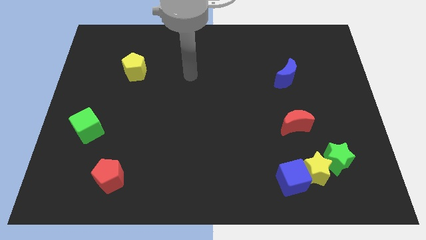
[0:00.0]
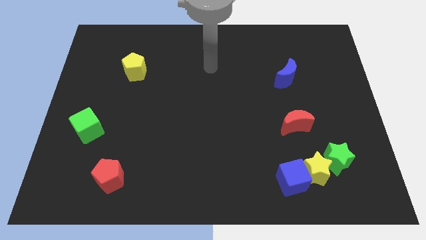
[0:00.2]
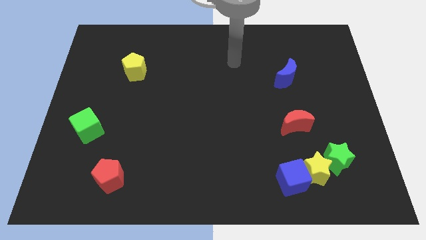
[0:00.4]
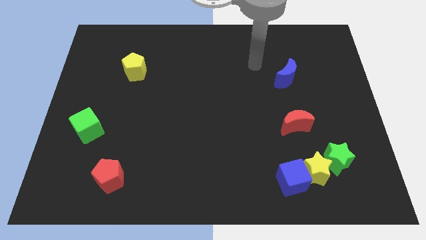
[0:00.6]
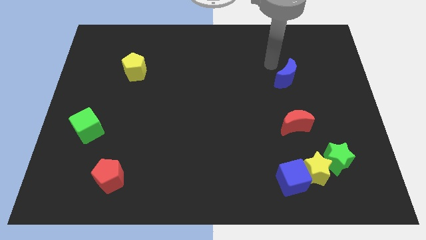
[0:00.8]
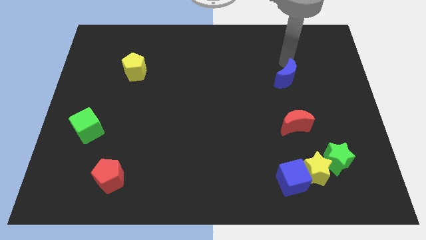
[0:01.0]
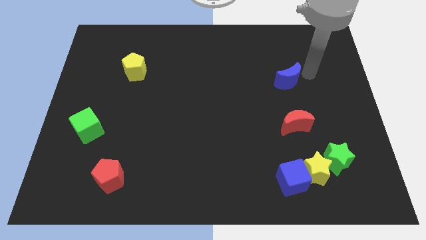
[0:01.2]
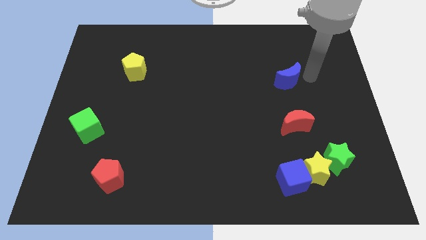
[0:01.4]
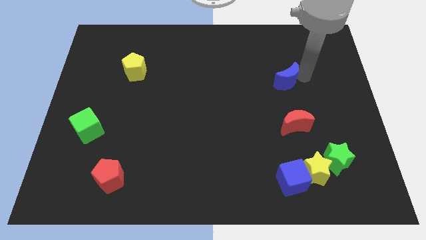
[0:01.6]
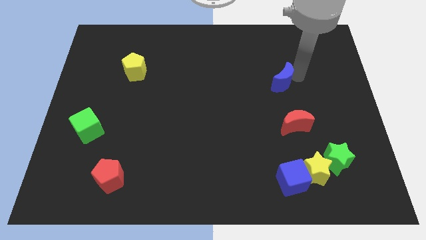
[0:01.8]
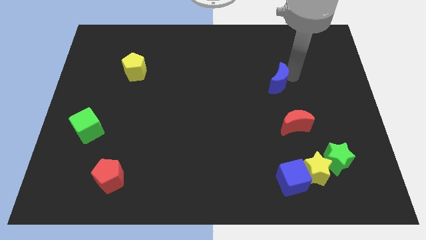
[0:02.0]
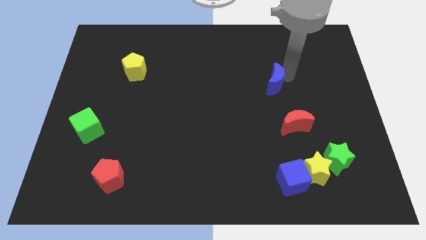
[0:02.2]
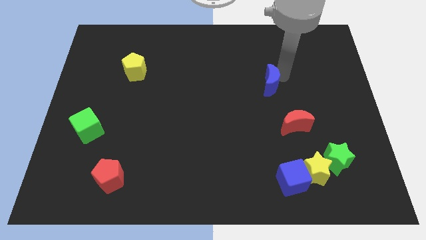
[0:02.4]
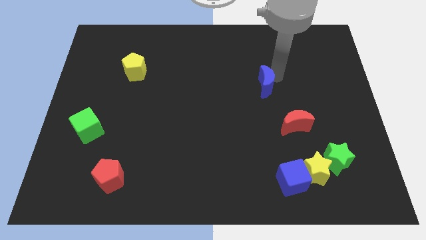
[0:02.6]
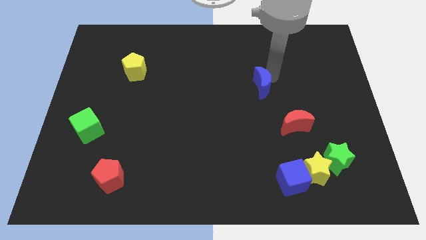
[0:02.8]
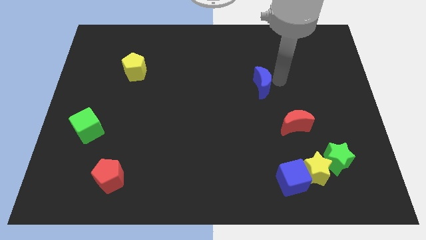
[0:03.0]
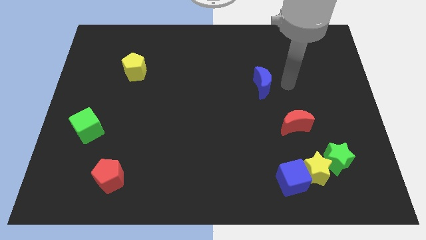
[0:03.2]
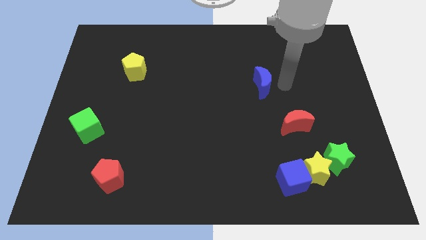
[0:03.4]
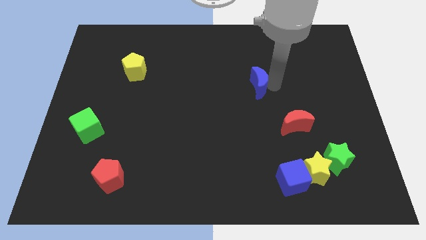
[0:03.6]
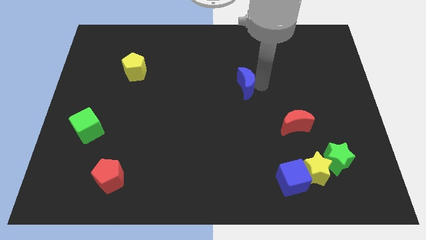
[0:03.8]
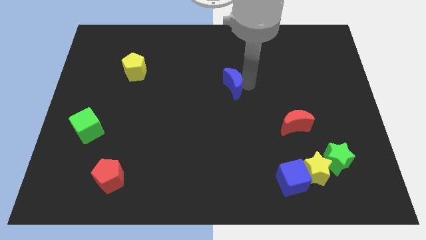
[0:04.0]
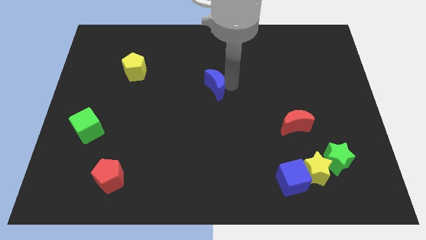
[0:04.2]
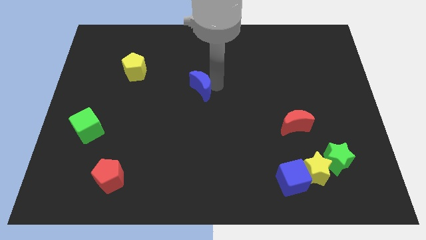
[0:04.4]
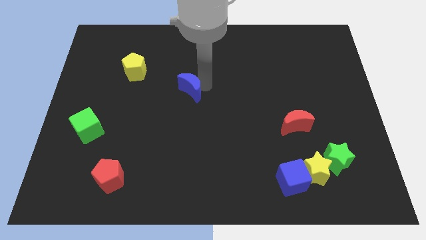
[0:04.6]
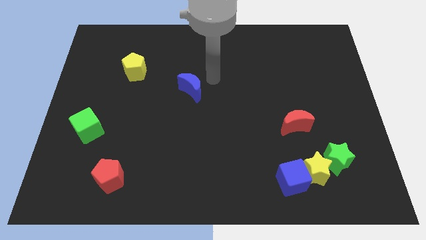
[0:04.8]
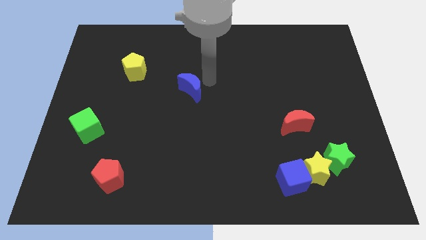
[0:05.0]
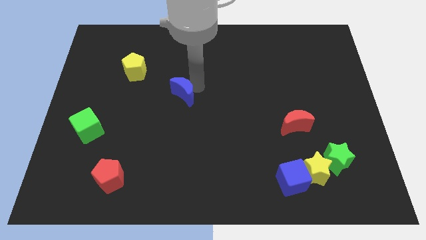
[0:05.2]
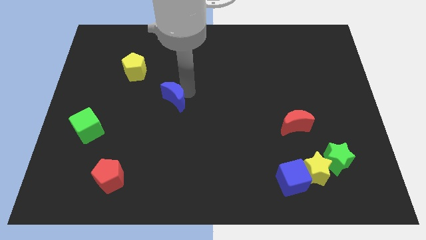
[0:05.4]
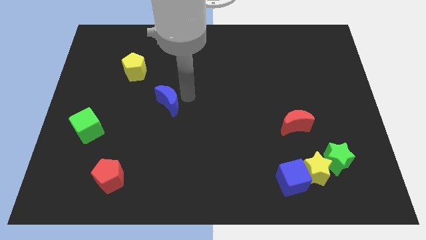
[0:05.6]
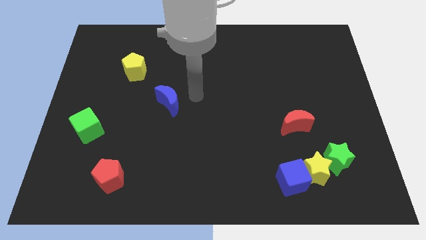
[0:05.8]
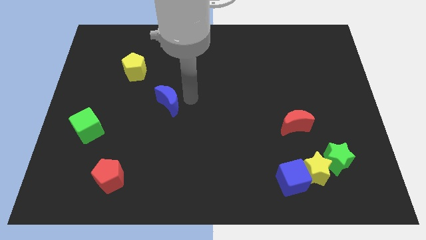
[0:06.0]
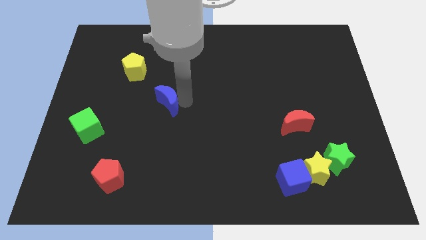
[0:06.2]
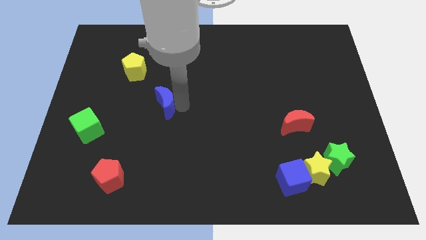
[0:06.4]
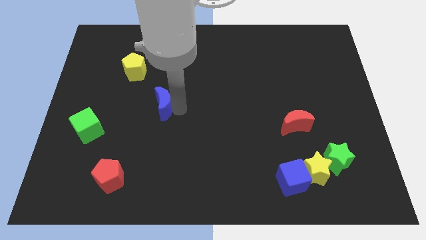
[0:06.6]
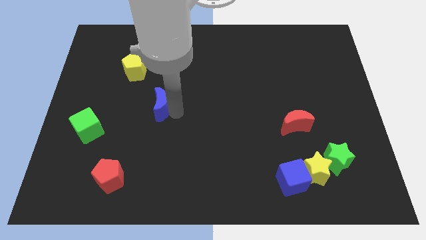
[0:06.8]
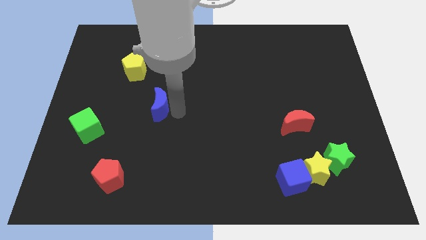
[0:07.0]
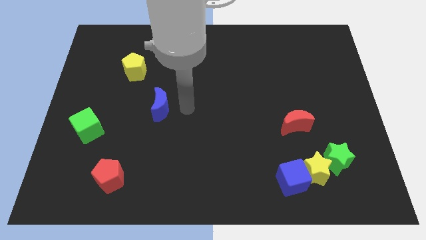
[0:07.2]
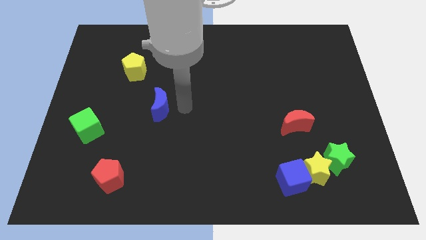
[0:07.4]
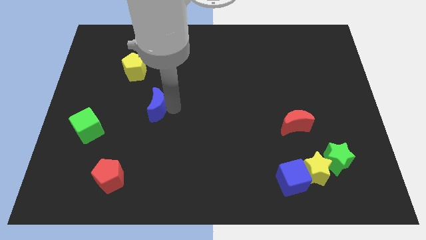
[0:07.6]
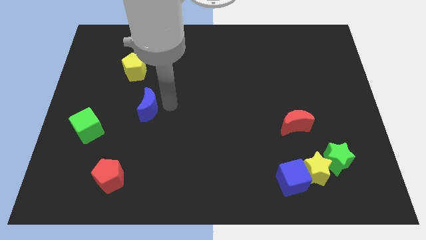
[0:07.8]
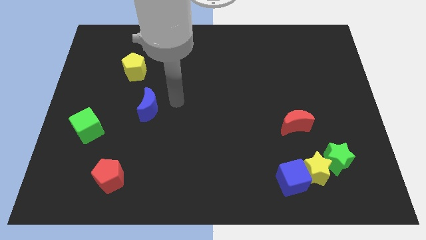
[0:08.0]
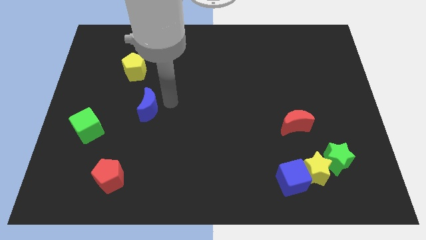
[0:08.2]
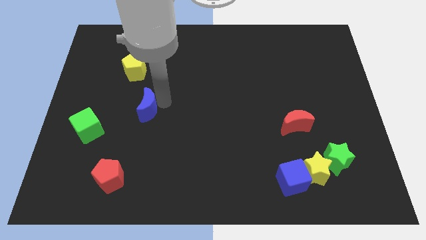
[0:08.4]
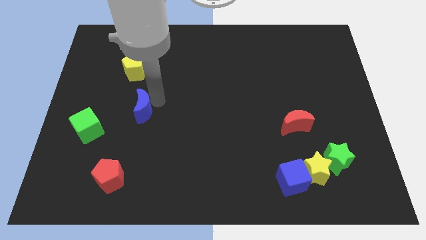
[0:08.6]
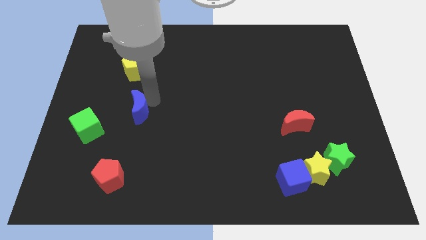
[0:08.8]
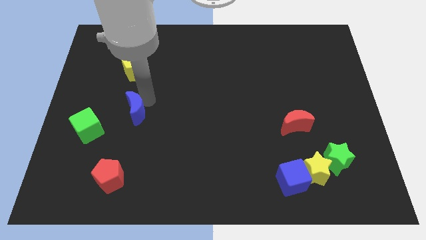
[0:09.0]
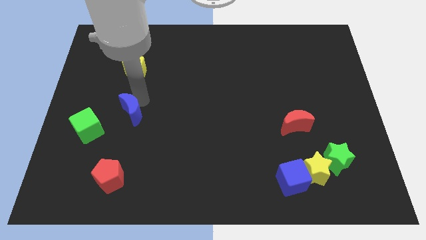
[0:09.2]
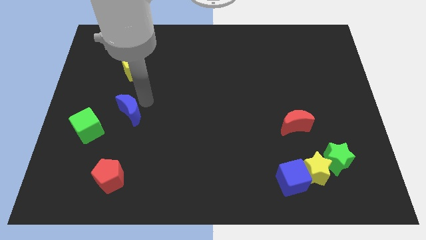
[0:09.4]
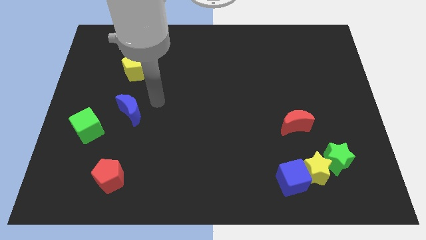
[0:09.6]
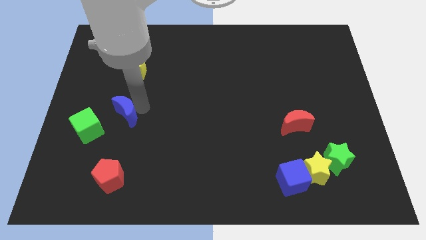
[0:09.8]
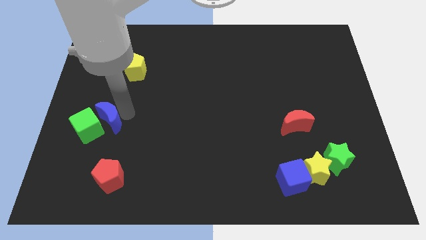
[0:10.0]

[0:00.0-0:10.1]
push the blue moon to the green cube

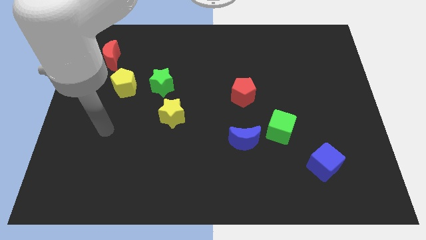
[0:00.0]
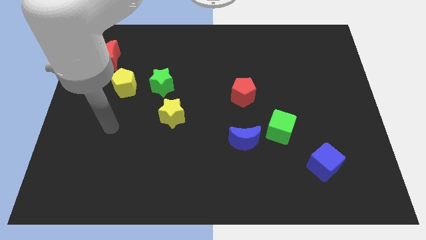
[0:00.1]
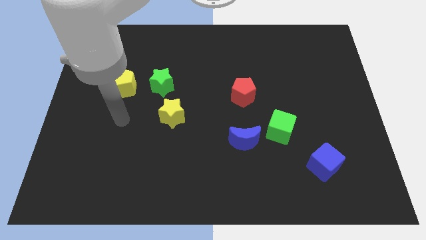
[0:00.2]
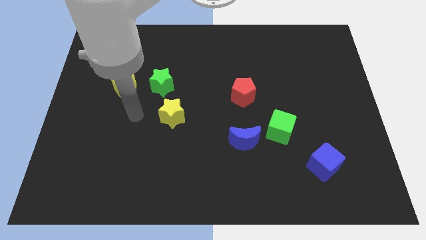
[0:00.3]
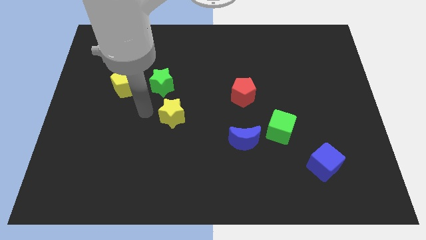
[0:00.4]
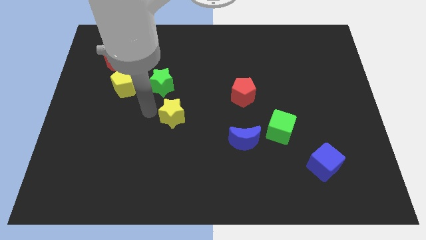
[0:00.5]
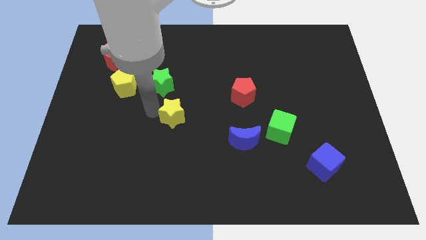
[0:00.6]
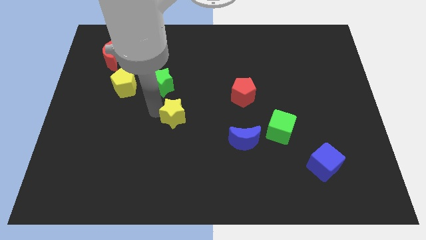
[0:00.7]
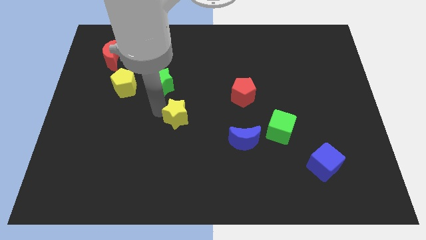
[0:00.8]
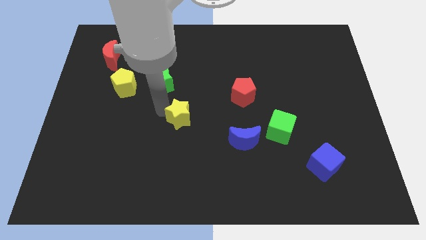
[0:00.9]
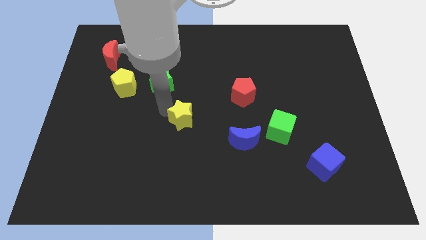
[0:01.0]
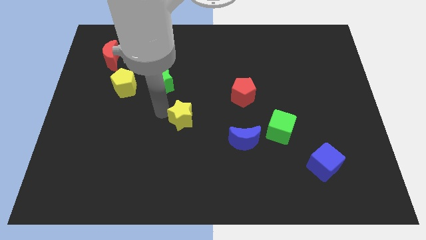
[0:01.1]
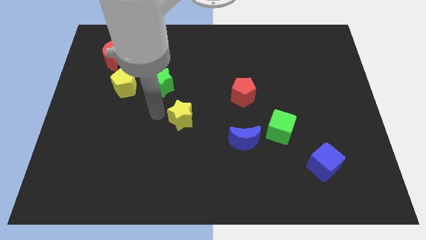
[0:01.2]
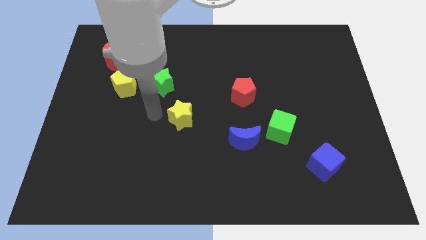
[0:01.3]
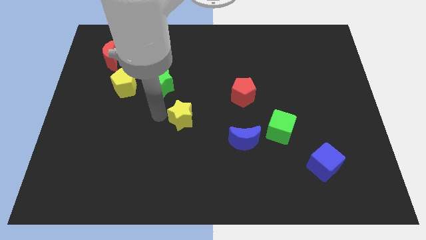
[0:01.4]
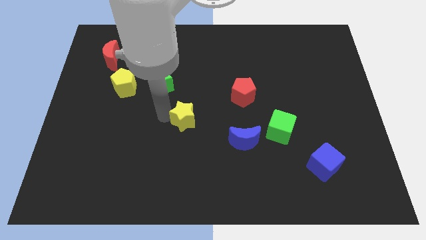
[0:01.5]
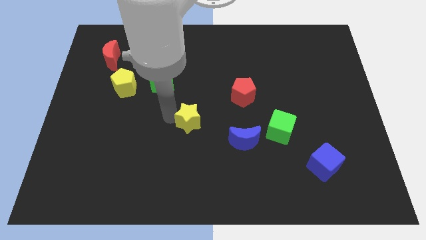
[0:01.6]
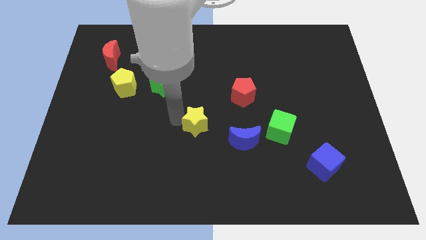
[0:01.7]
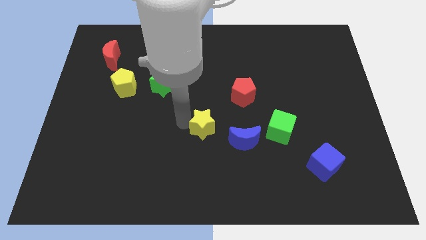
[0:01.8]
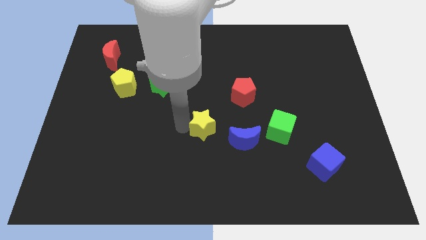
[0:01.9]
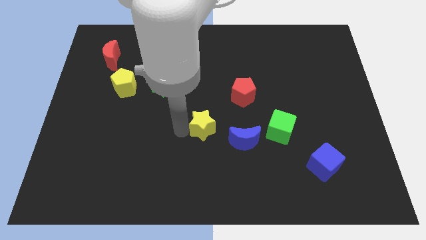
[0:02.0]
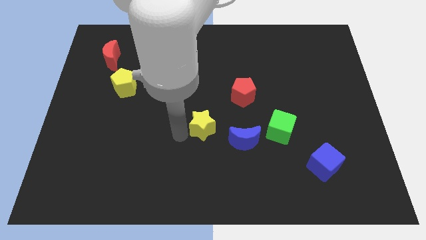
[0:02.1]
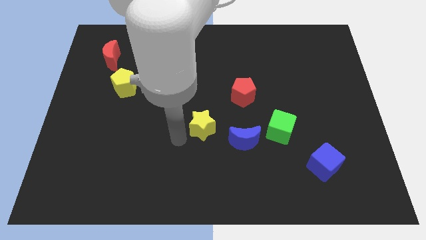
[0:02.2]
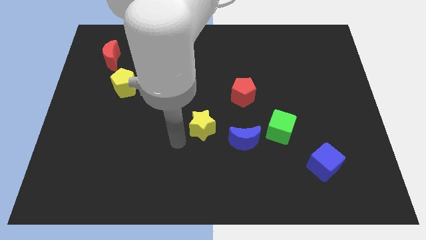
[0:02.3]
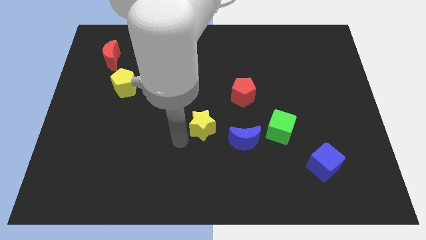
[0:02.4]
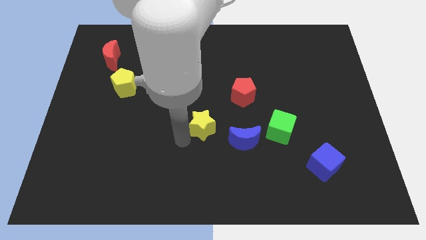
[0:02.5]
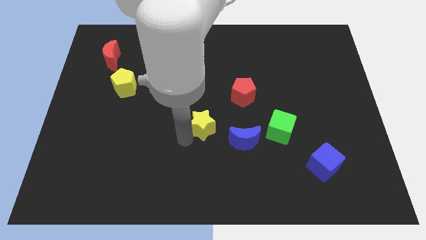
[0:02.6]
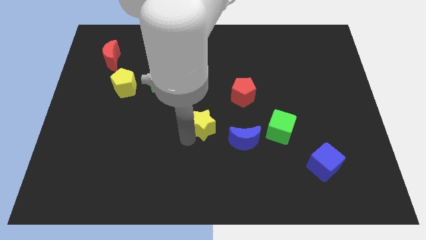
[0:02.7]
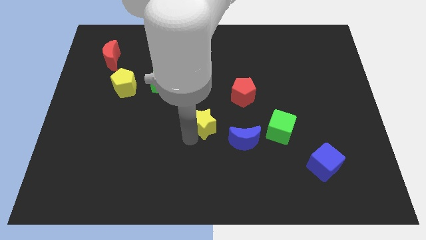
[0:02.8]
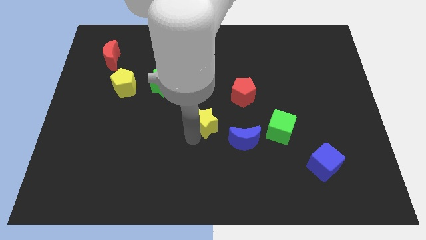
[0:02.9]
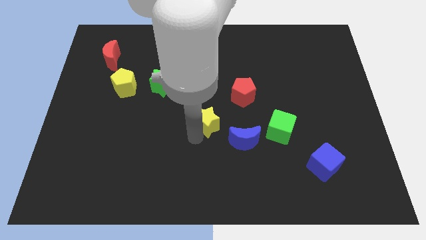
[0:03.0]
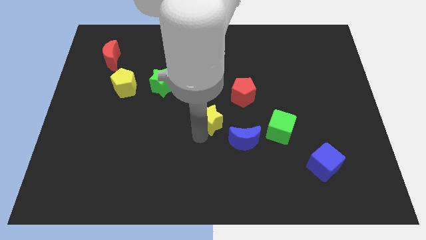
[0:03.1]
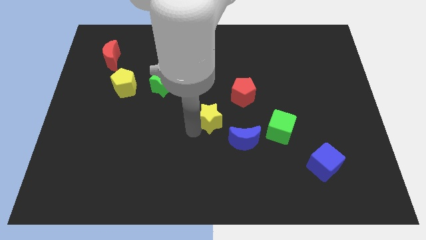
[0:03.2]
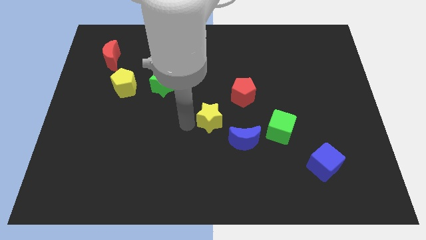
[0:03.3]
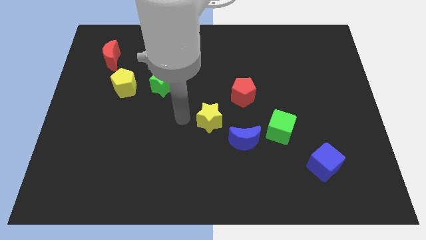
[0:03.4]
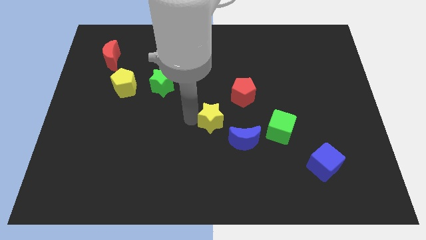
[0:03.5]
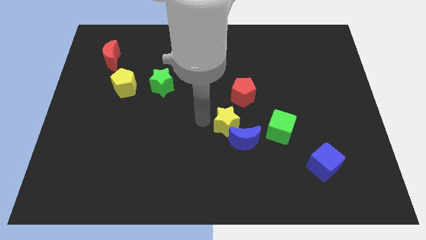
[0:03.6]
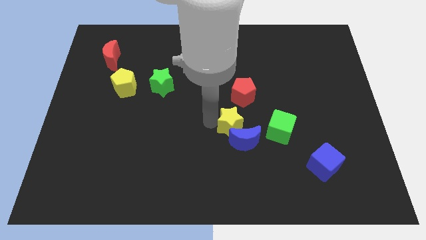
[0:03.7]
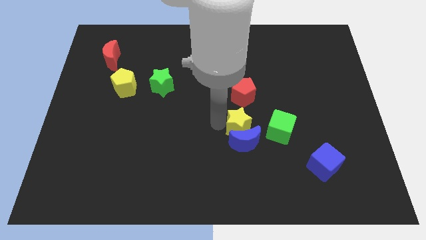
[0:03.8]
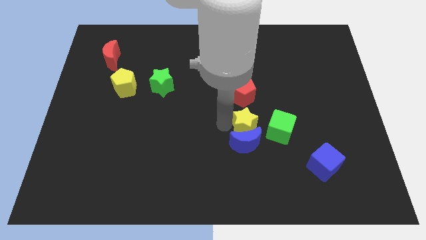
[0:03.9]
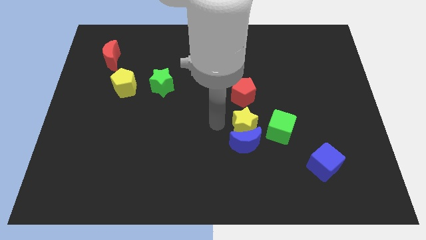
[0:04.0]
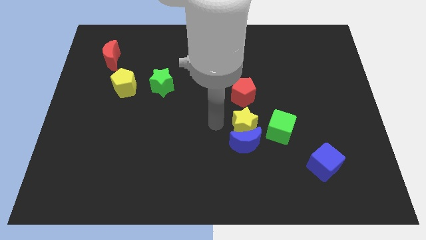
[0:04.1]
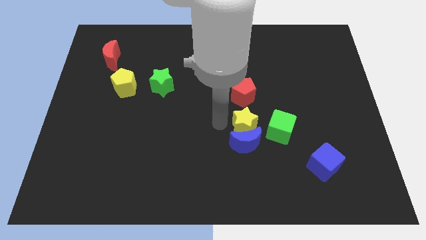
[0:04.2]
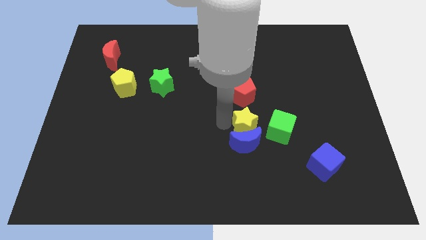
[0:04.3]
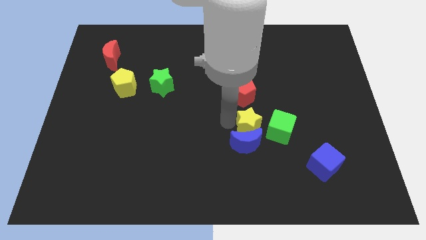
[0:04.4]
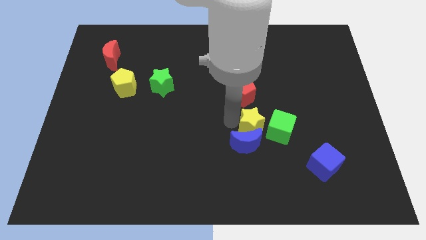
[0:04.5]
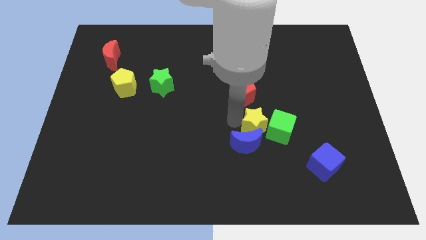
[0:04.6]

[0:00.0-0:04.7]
move the yellow star towards the green cube
